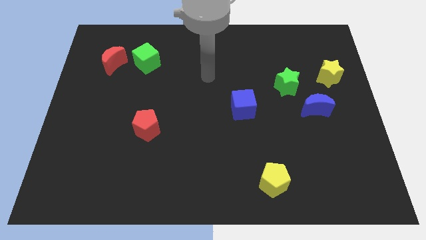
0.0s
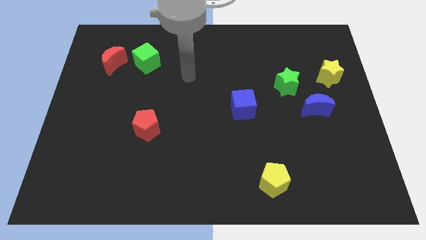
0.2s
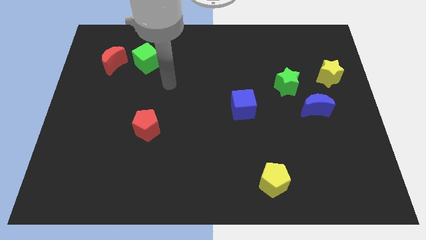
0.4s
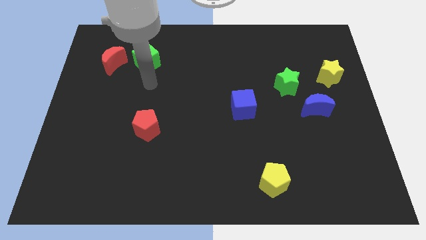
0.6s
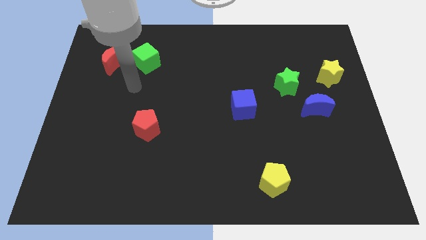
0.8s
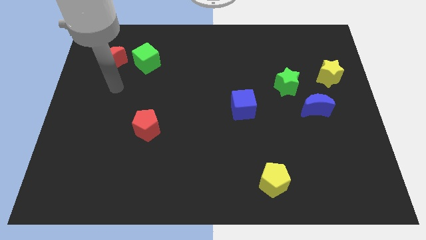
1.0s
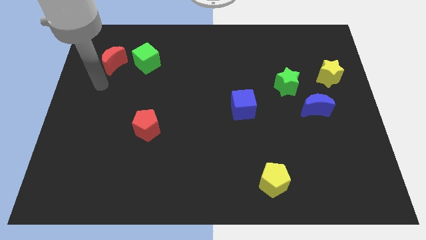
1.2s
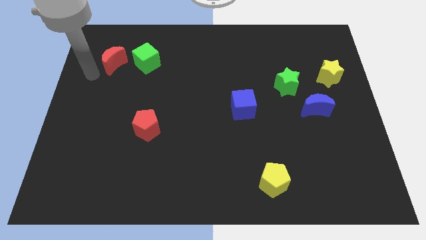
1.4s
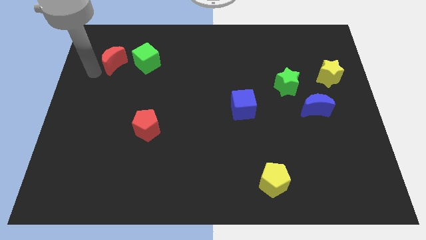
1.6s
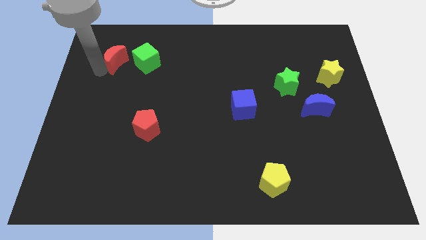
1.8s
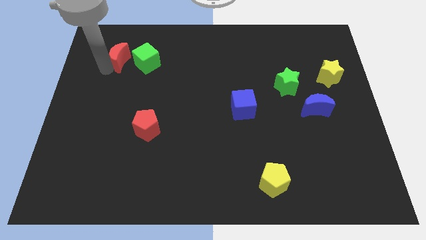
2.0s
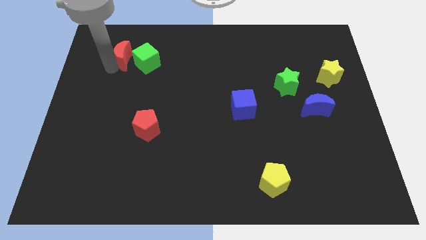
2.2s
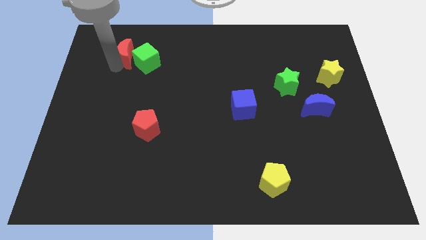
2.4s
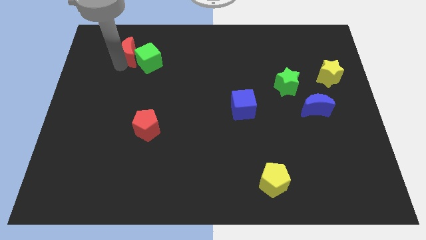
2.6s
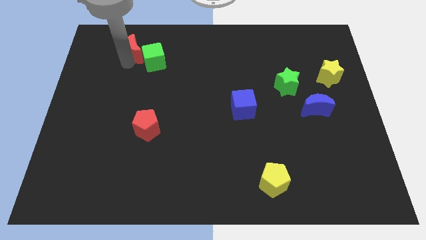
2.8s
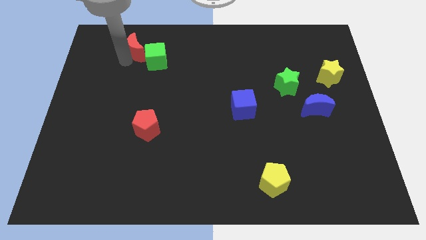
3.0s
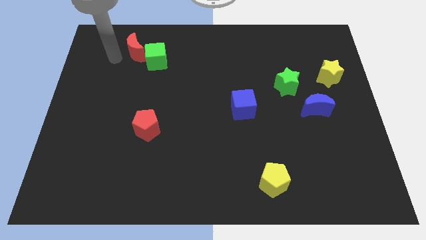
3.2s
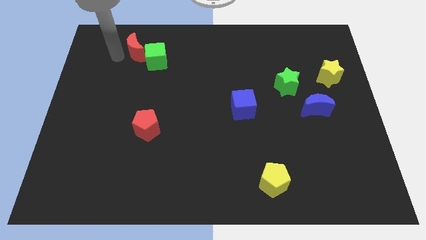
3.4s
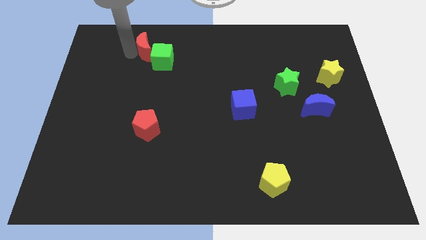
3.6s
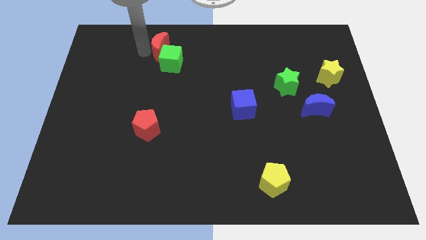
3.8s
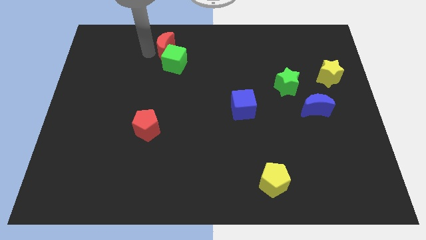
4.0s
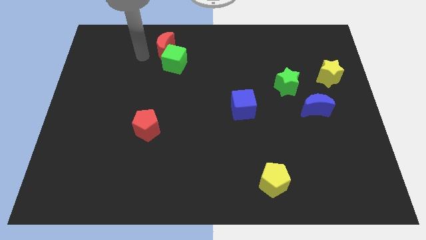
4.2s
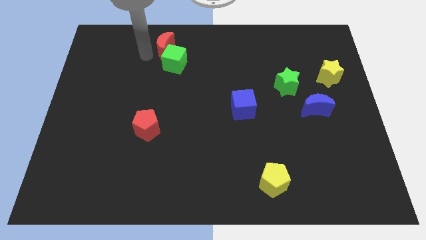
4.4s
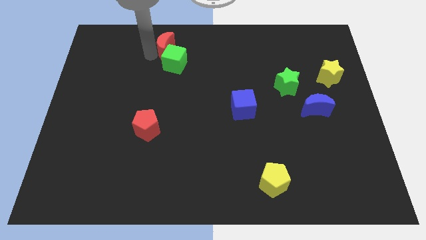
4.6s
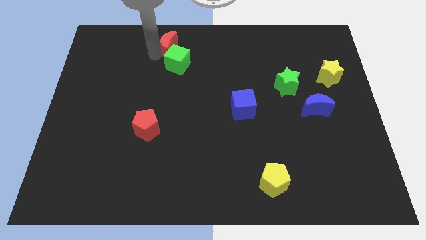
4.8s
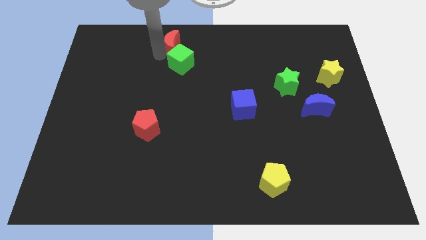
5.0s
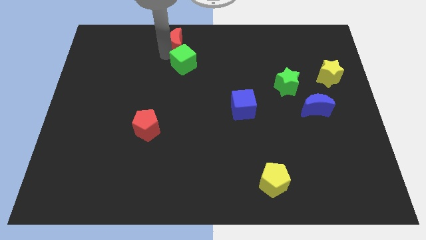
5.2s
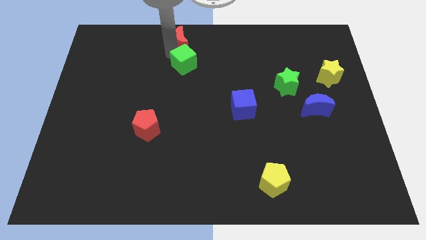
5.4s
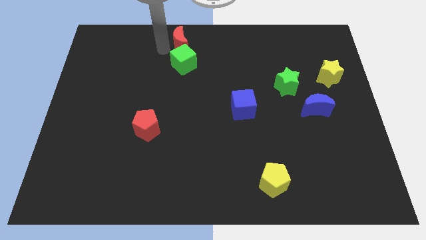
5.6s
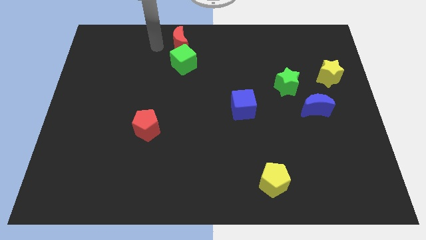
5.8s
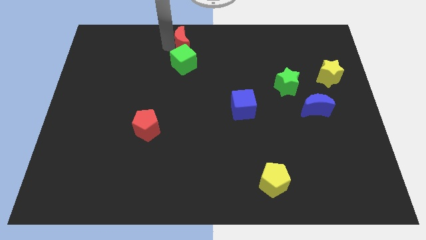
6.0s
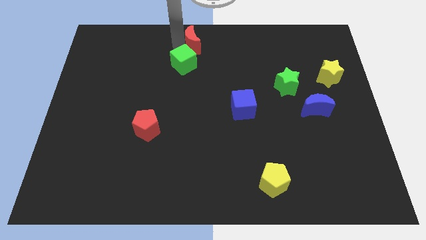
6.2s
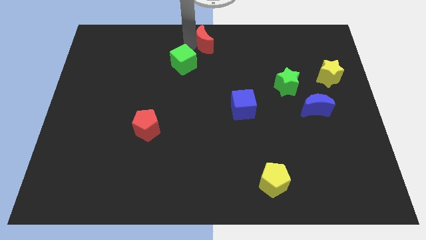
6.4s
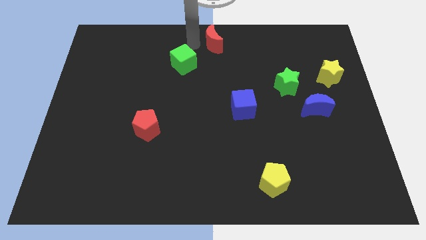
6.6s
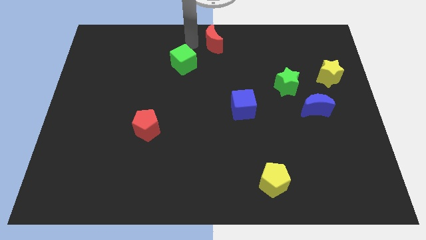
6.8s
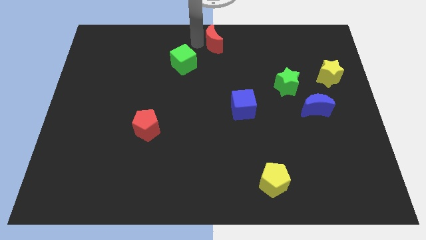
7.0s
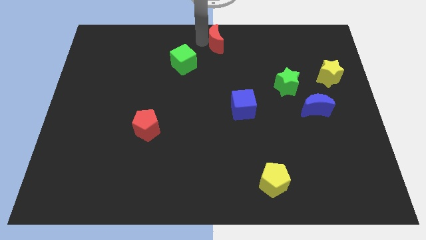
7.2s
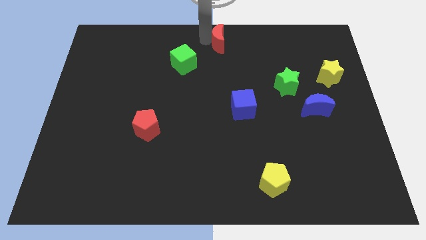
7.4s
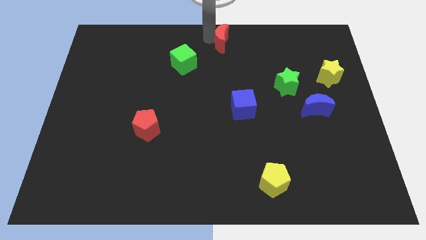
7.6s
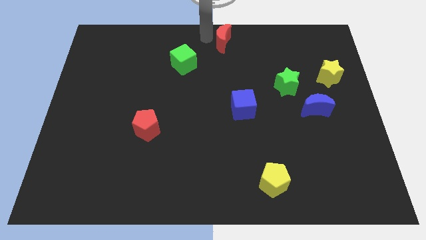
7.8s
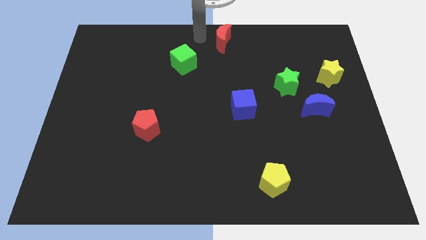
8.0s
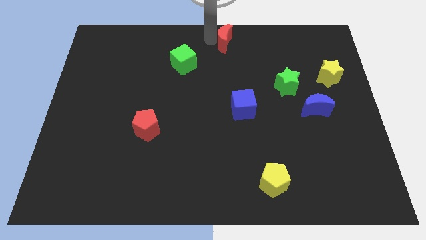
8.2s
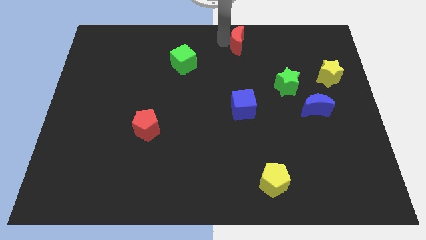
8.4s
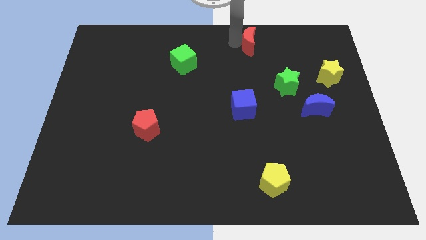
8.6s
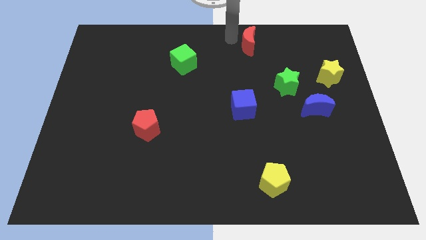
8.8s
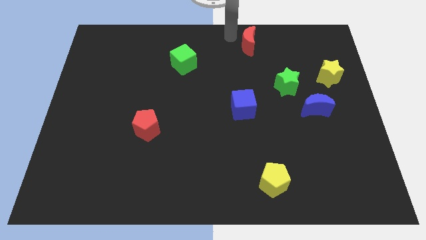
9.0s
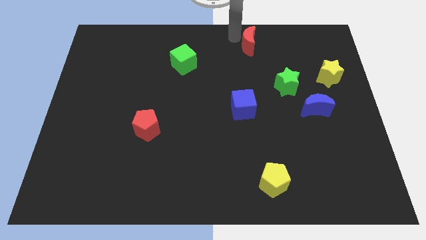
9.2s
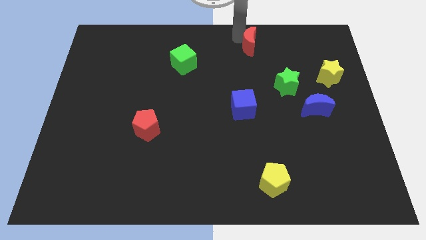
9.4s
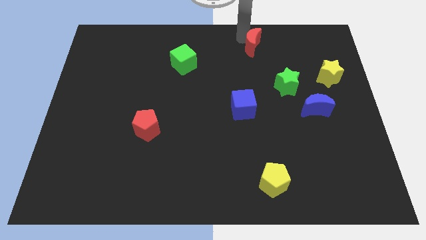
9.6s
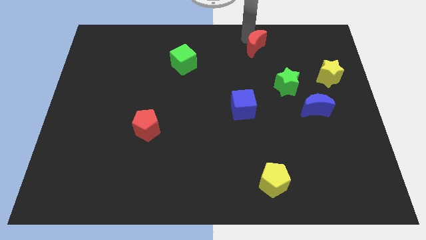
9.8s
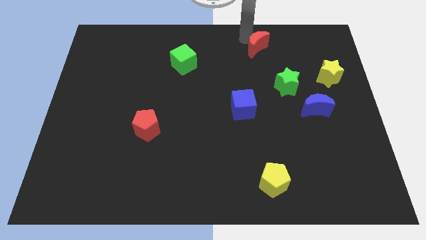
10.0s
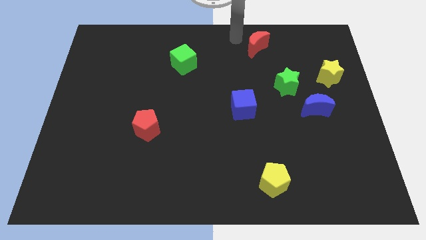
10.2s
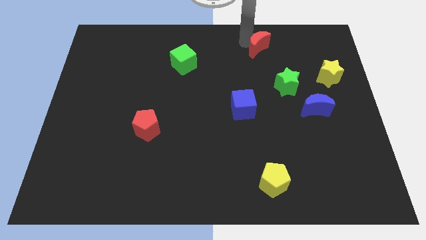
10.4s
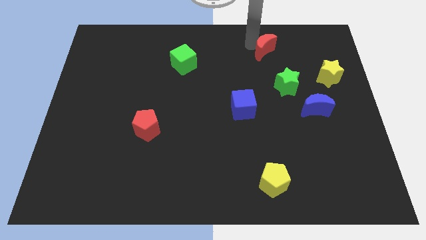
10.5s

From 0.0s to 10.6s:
push the red moon above the green star

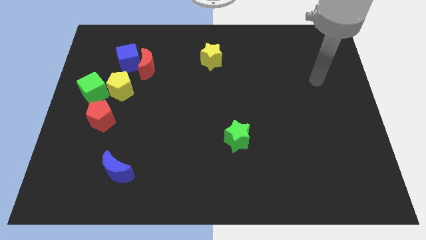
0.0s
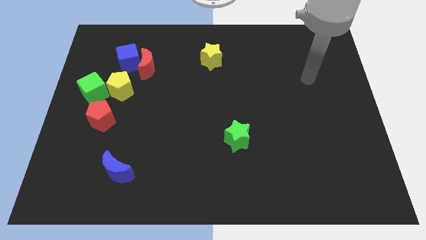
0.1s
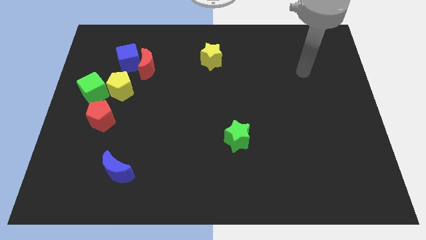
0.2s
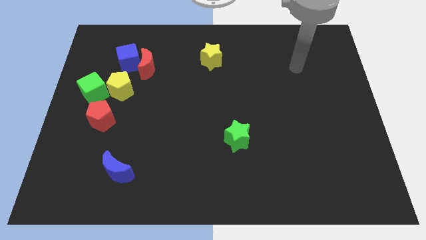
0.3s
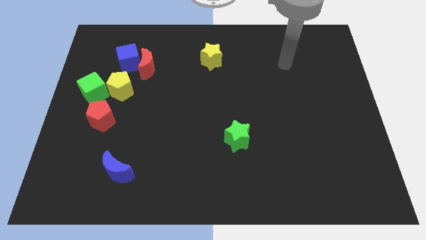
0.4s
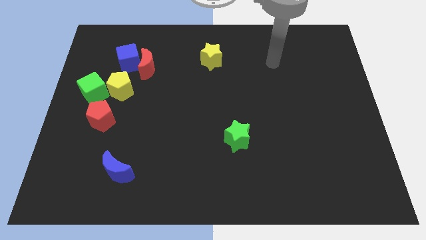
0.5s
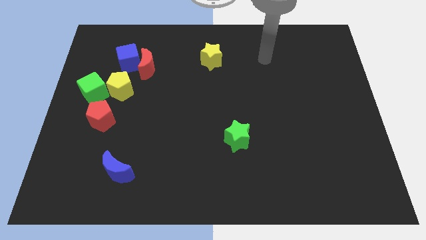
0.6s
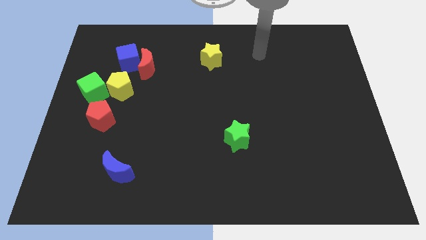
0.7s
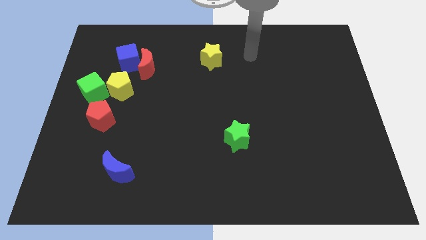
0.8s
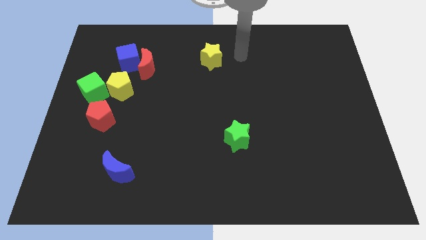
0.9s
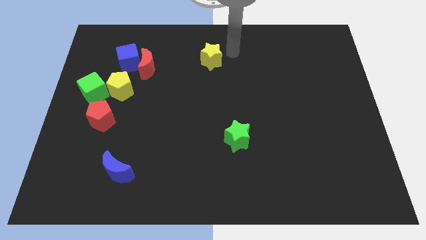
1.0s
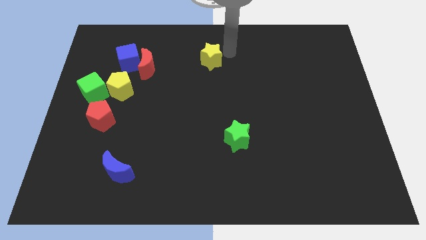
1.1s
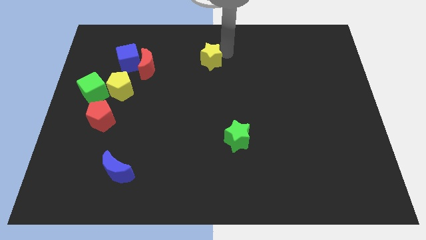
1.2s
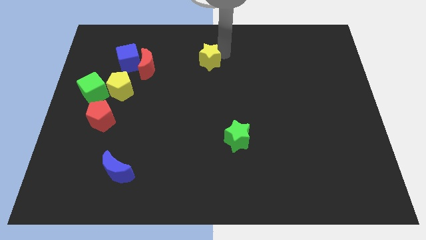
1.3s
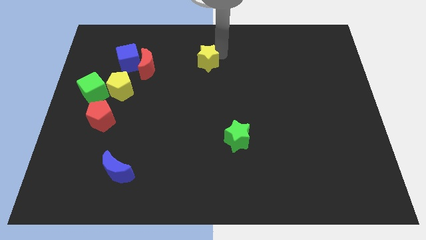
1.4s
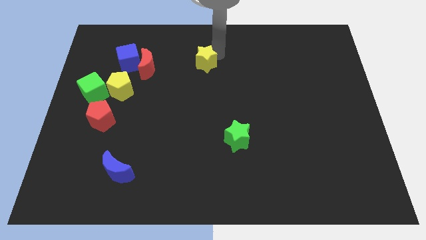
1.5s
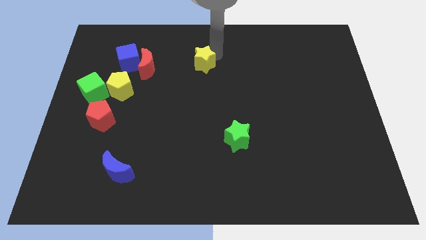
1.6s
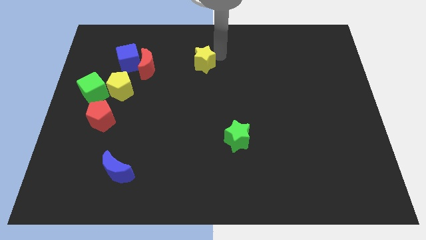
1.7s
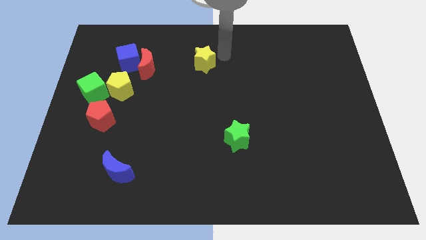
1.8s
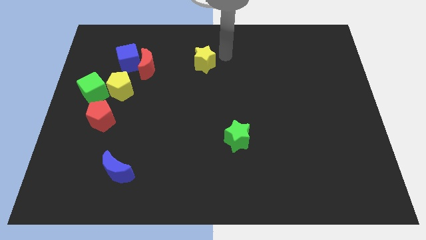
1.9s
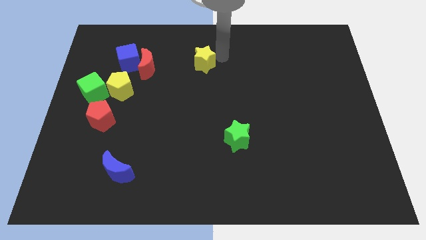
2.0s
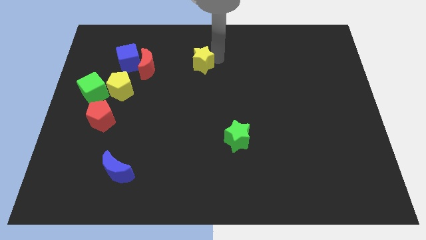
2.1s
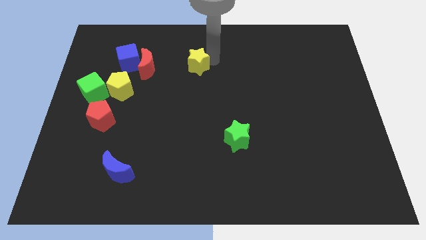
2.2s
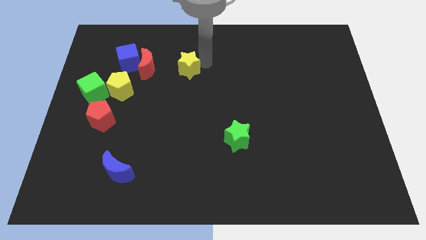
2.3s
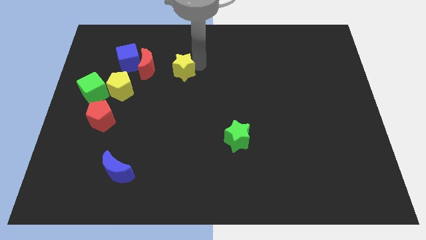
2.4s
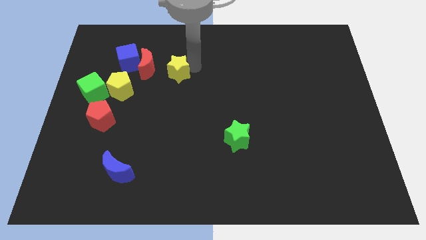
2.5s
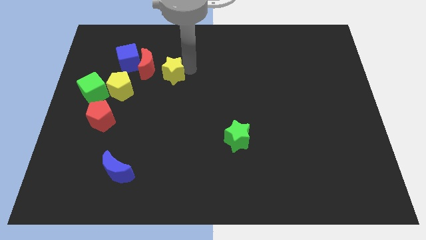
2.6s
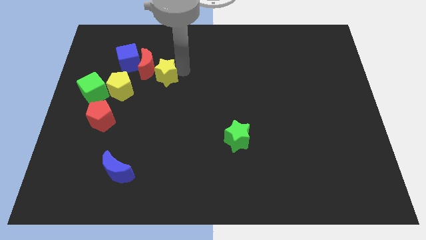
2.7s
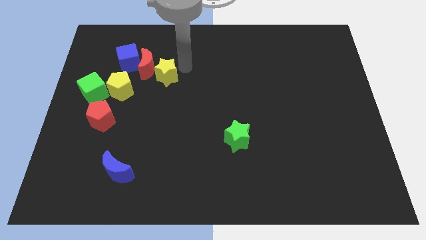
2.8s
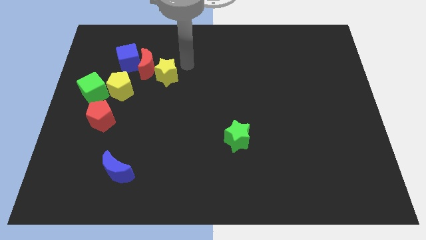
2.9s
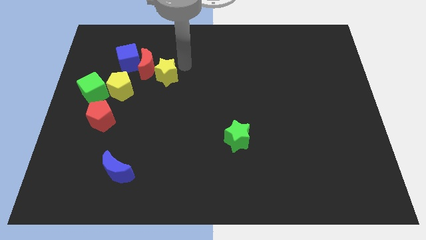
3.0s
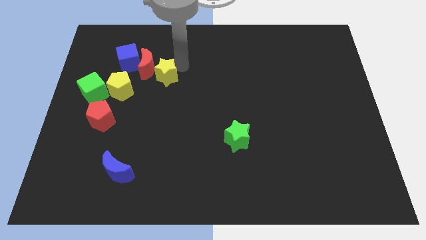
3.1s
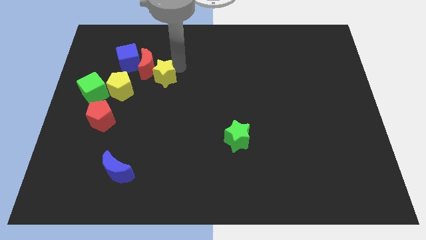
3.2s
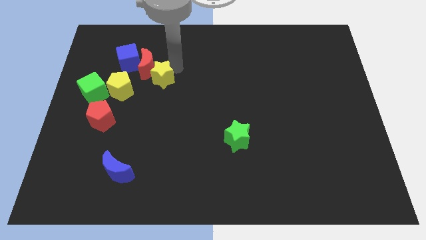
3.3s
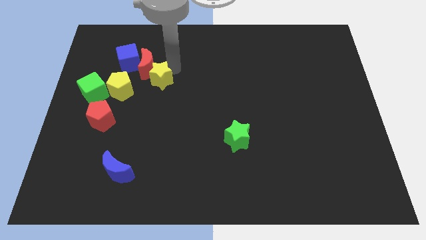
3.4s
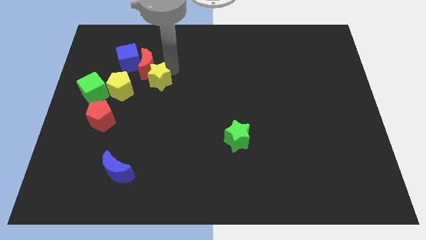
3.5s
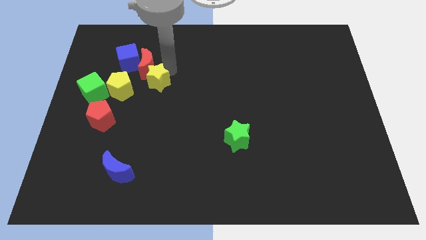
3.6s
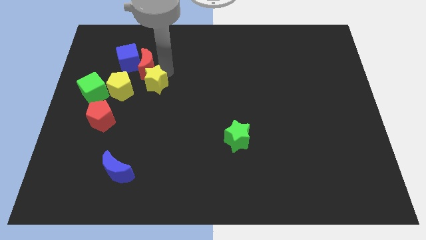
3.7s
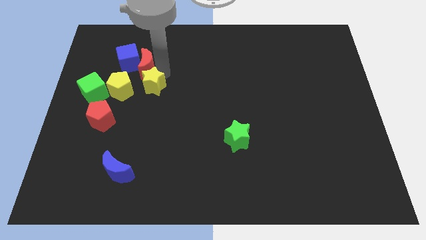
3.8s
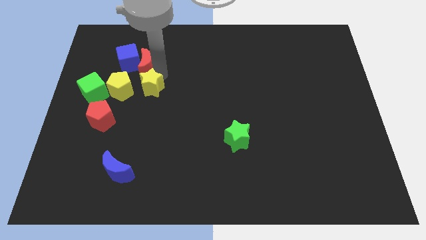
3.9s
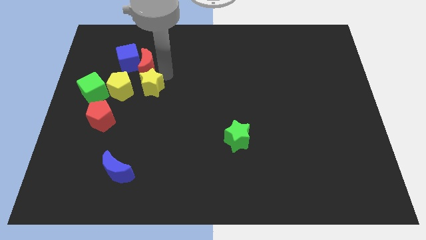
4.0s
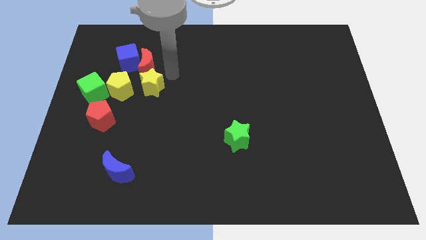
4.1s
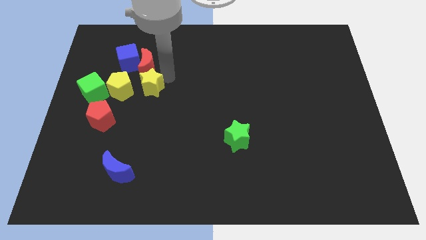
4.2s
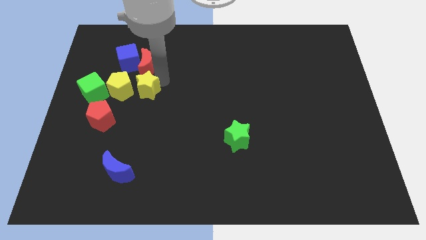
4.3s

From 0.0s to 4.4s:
put the yellow star diagonally up and to the right of the red pentagon
